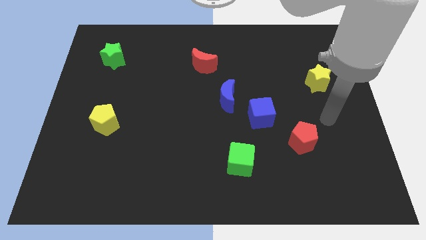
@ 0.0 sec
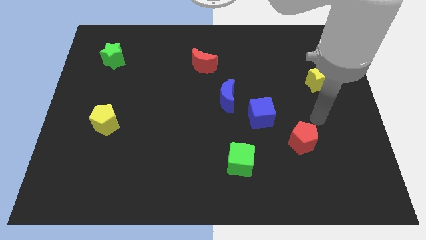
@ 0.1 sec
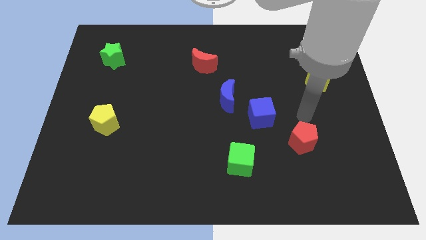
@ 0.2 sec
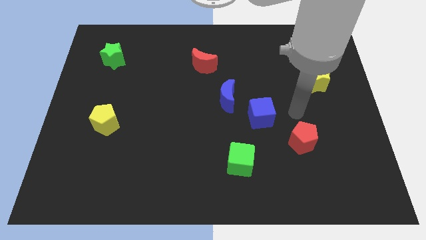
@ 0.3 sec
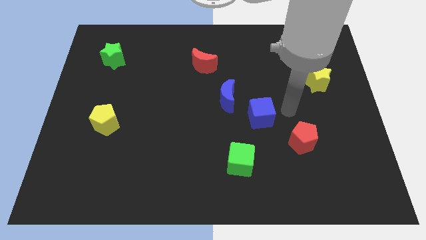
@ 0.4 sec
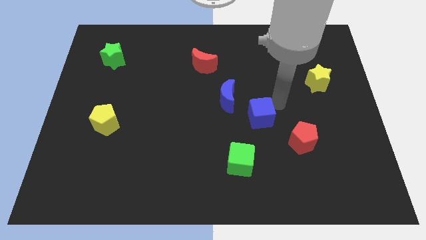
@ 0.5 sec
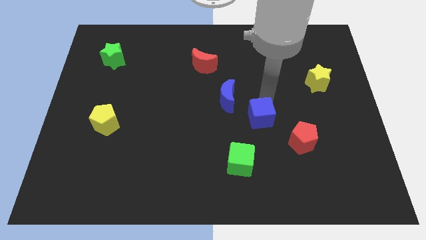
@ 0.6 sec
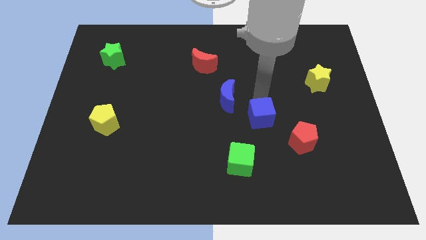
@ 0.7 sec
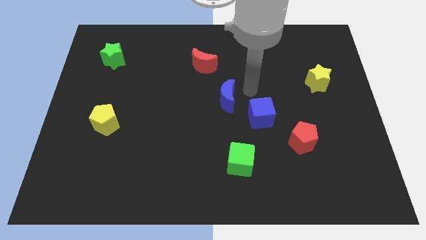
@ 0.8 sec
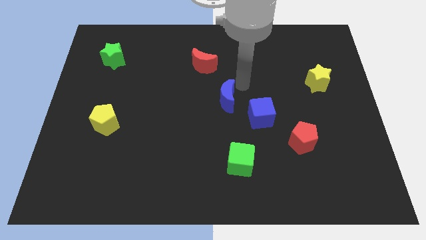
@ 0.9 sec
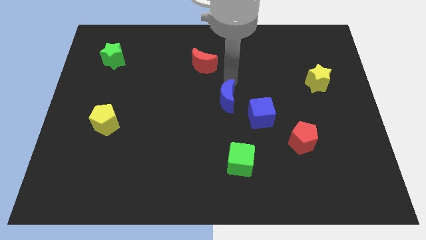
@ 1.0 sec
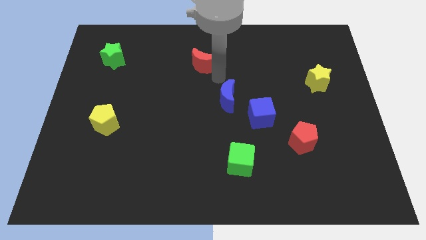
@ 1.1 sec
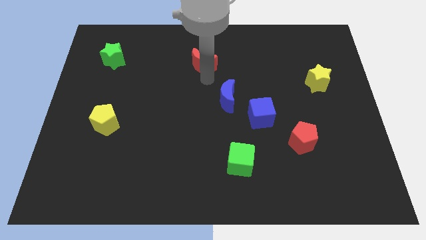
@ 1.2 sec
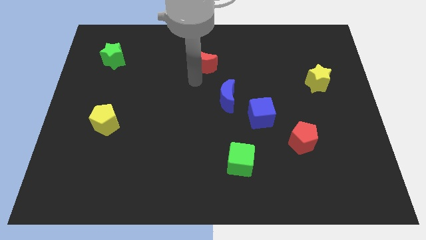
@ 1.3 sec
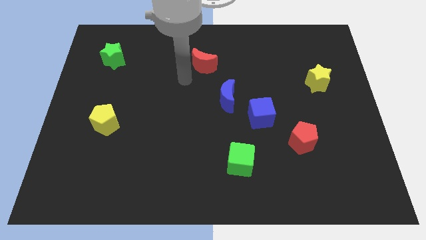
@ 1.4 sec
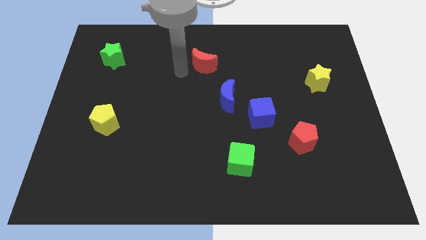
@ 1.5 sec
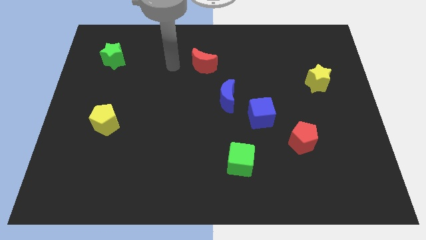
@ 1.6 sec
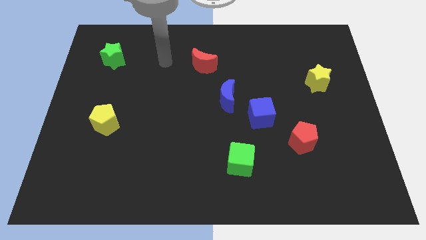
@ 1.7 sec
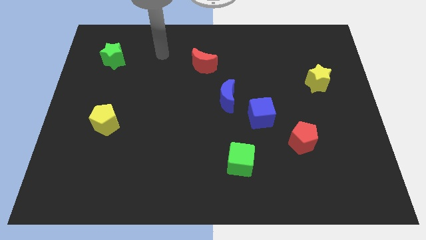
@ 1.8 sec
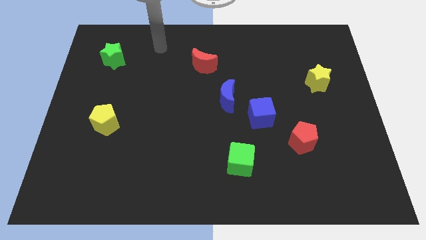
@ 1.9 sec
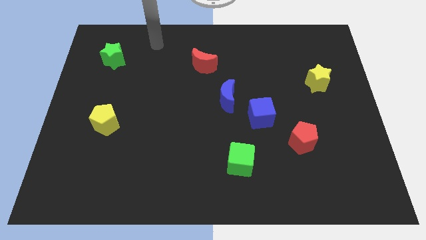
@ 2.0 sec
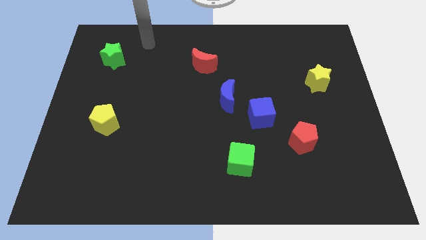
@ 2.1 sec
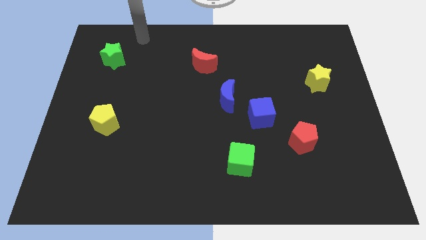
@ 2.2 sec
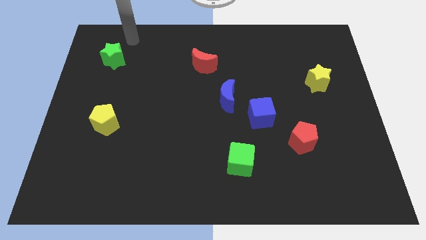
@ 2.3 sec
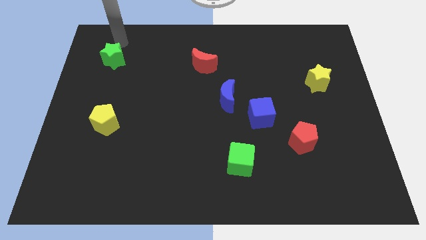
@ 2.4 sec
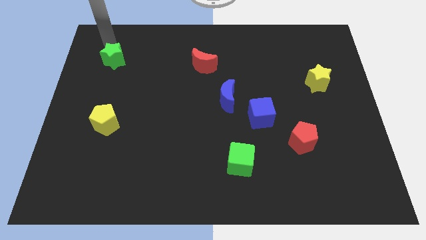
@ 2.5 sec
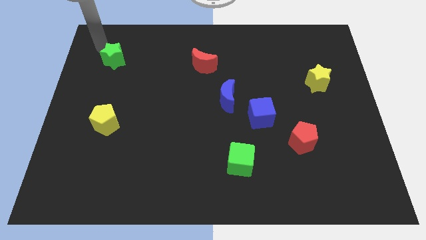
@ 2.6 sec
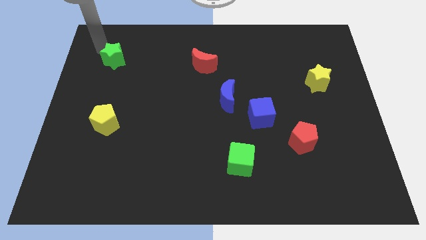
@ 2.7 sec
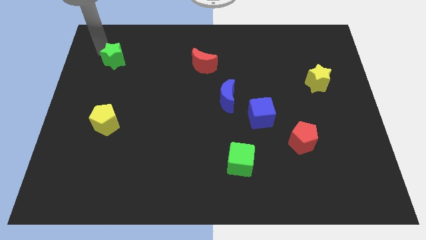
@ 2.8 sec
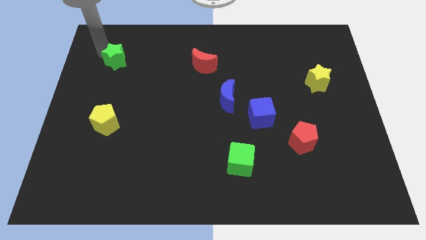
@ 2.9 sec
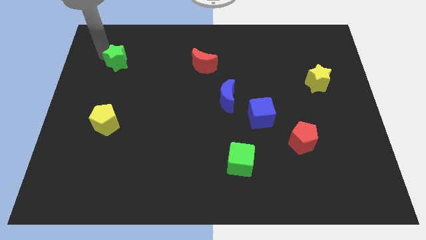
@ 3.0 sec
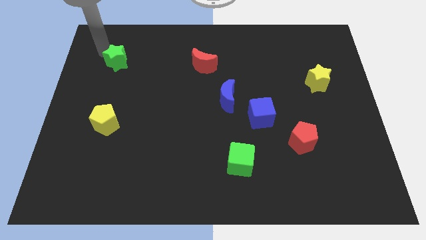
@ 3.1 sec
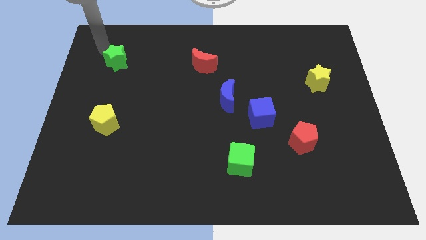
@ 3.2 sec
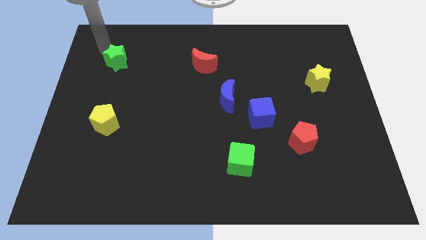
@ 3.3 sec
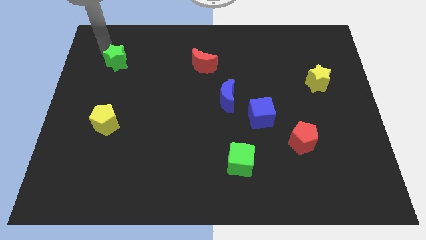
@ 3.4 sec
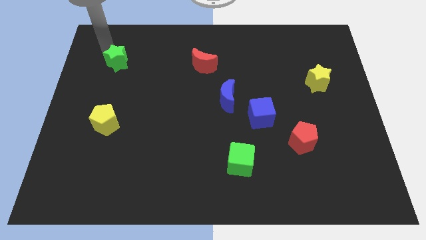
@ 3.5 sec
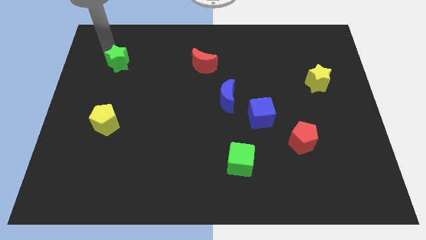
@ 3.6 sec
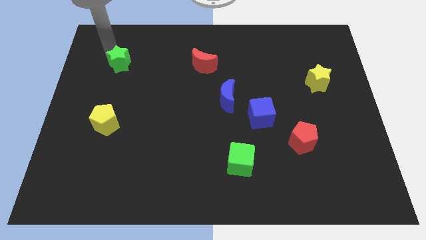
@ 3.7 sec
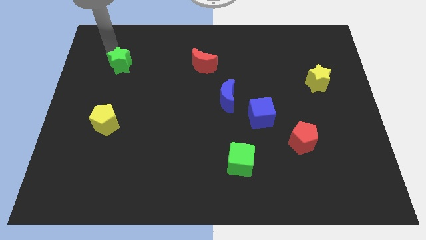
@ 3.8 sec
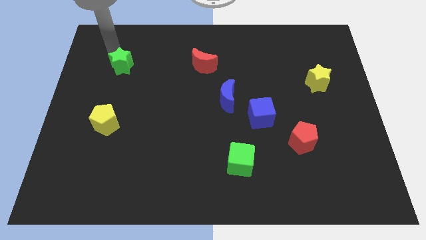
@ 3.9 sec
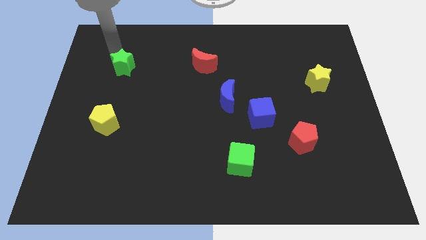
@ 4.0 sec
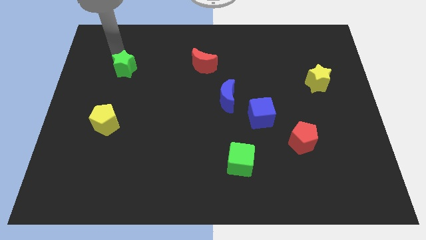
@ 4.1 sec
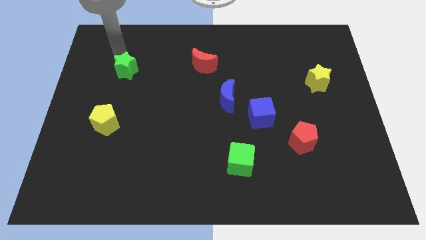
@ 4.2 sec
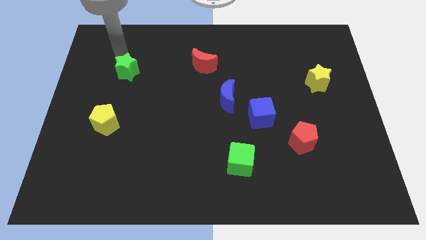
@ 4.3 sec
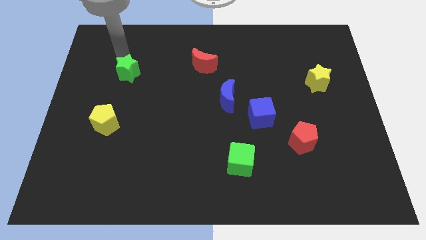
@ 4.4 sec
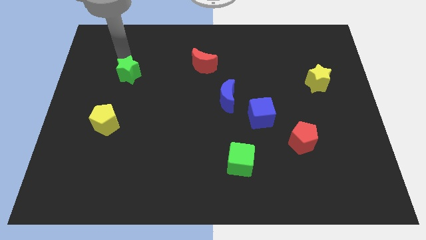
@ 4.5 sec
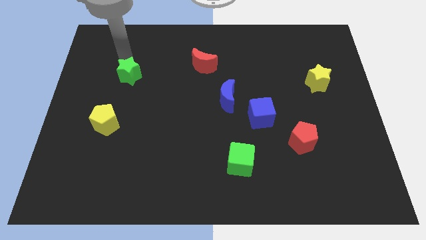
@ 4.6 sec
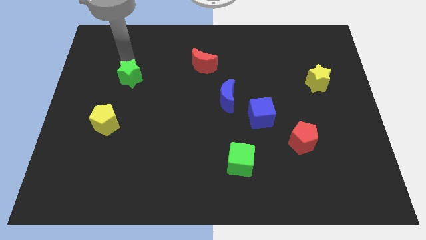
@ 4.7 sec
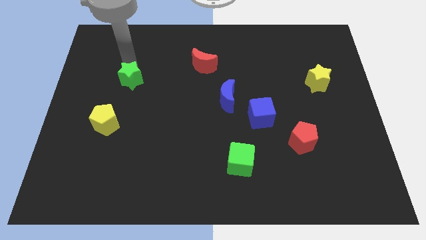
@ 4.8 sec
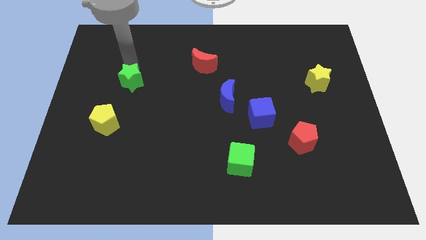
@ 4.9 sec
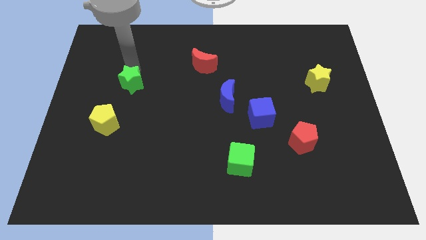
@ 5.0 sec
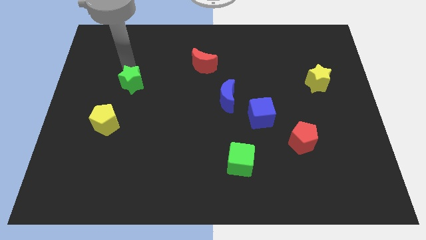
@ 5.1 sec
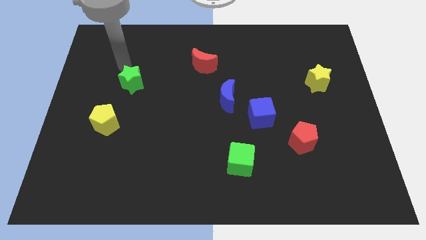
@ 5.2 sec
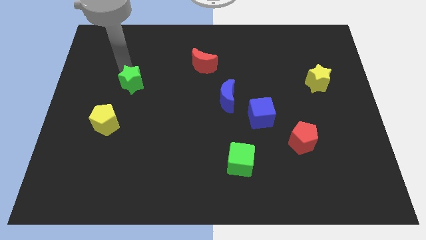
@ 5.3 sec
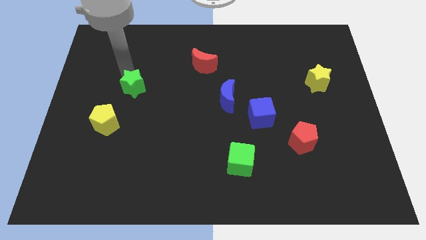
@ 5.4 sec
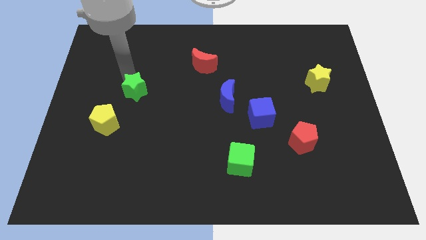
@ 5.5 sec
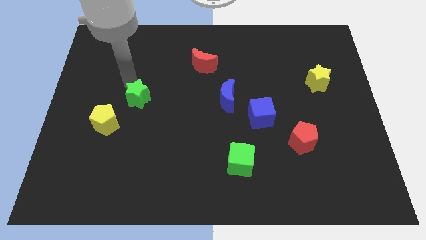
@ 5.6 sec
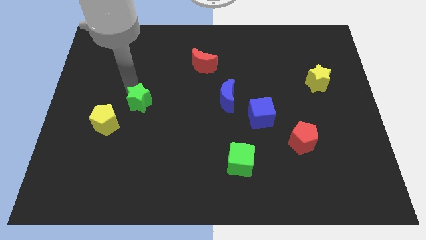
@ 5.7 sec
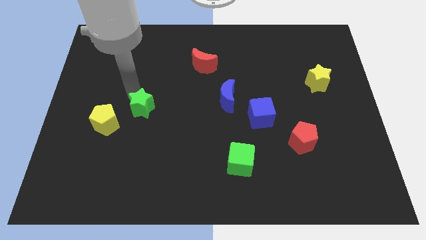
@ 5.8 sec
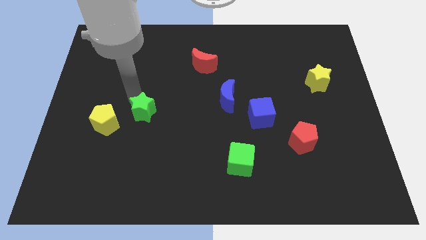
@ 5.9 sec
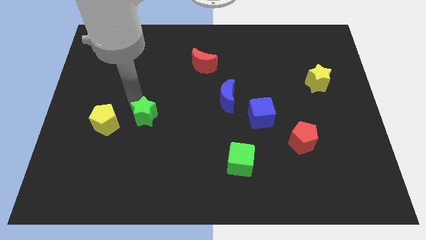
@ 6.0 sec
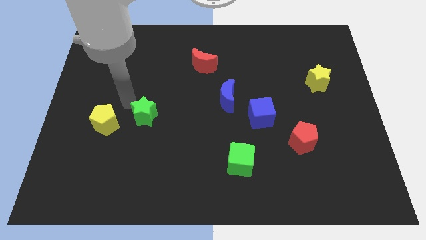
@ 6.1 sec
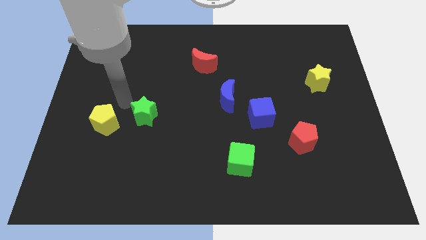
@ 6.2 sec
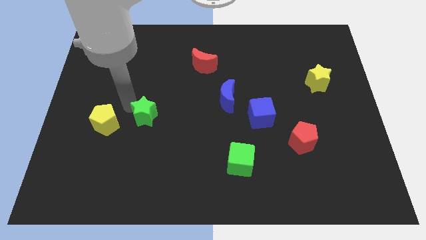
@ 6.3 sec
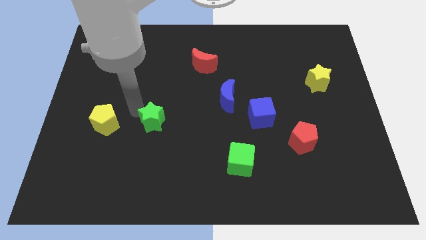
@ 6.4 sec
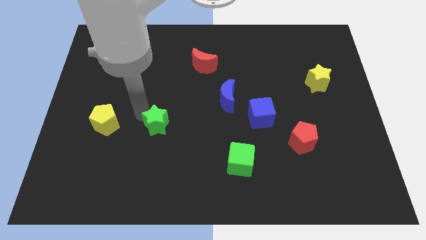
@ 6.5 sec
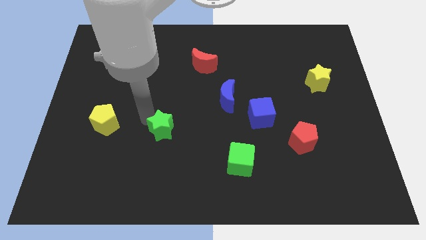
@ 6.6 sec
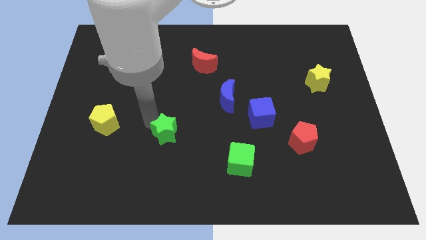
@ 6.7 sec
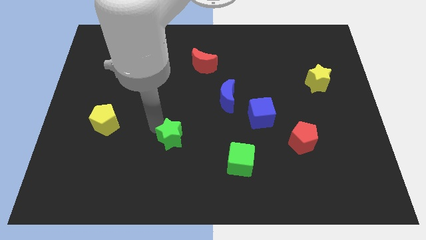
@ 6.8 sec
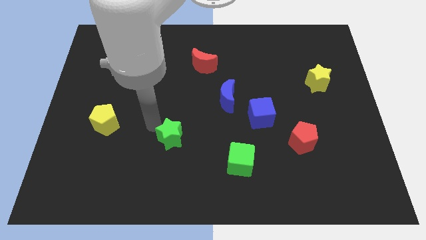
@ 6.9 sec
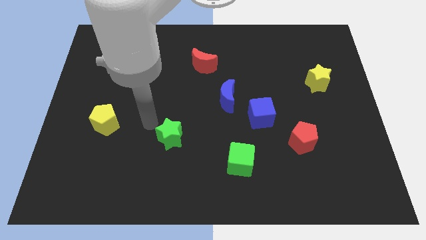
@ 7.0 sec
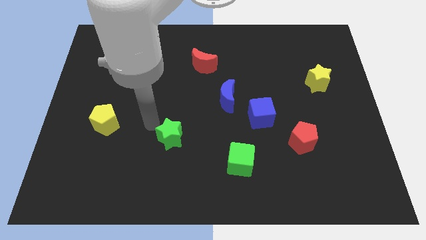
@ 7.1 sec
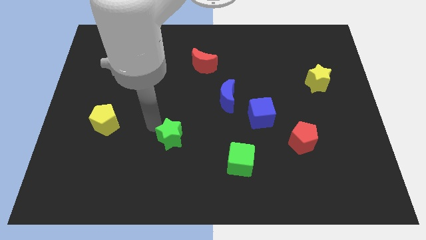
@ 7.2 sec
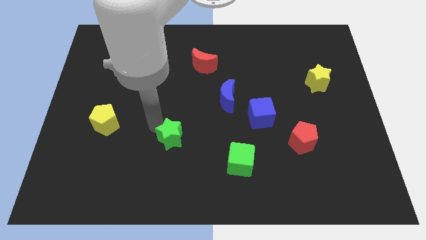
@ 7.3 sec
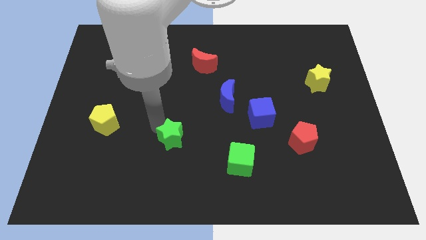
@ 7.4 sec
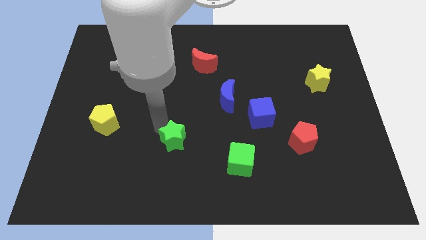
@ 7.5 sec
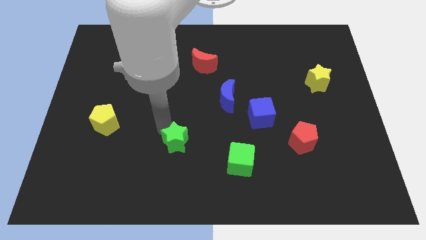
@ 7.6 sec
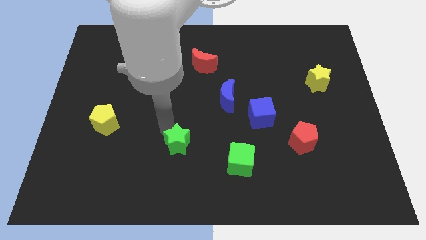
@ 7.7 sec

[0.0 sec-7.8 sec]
push the green star left of the green cube
